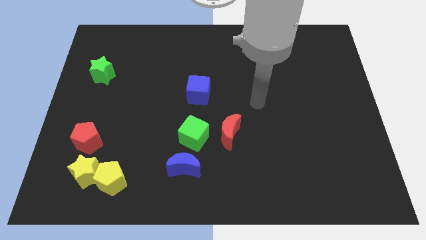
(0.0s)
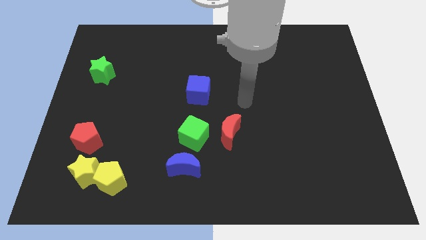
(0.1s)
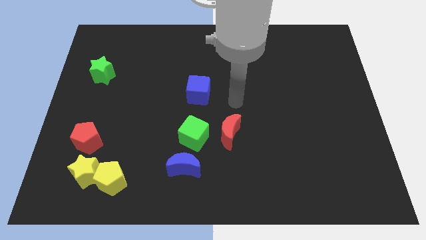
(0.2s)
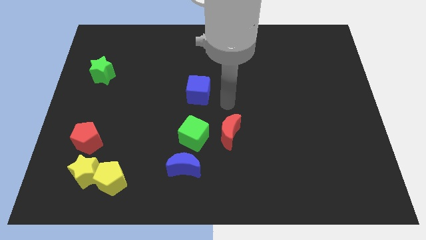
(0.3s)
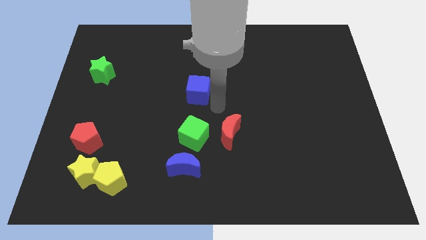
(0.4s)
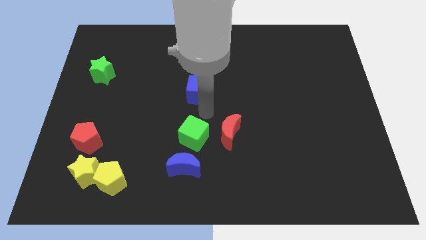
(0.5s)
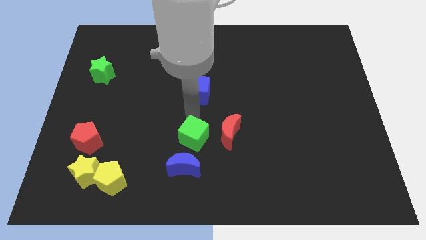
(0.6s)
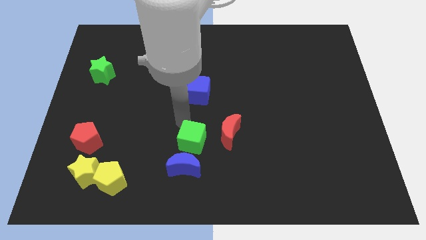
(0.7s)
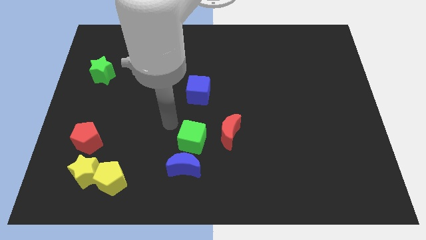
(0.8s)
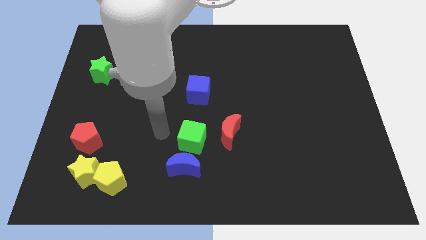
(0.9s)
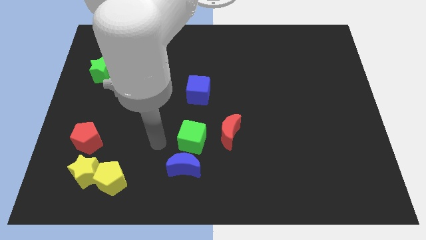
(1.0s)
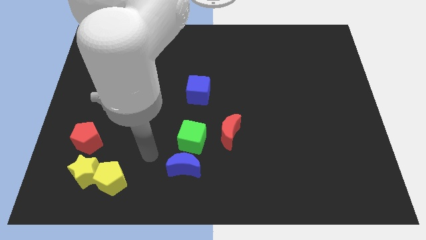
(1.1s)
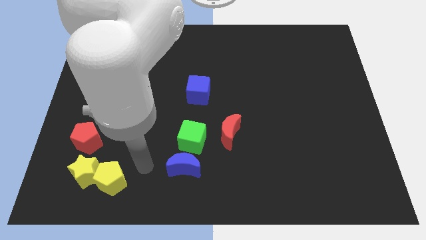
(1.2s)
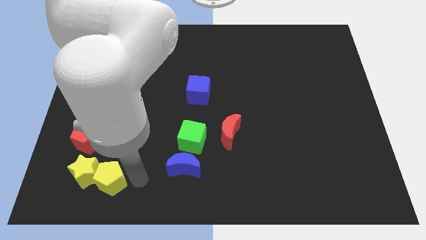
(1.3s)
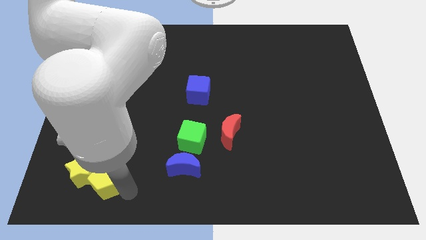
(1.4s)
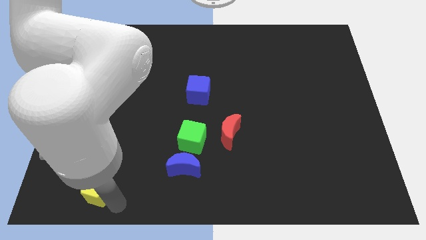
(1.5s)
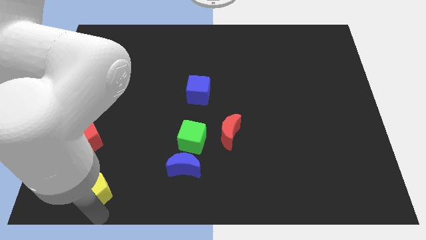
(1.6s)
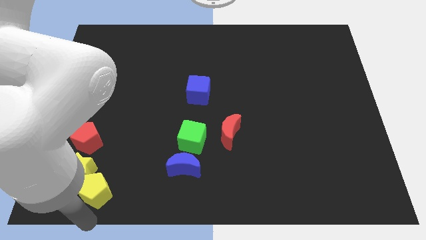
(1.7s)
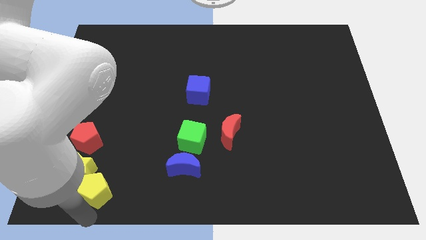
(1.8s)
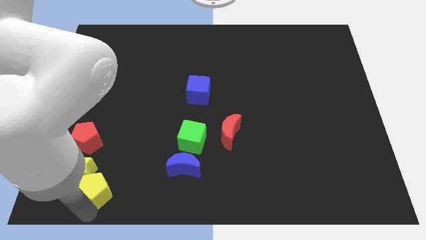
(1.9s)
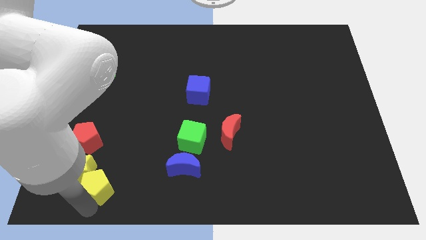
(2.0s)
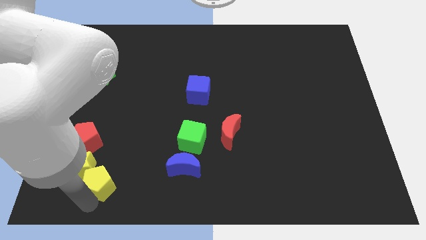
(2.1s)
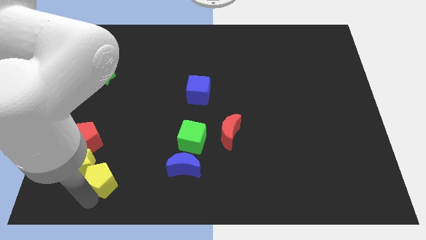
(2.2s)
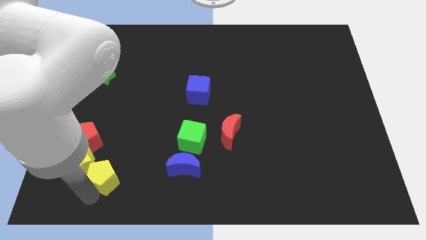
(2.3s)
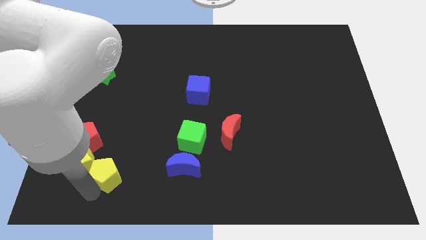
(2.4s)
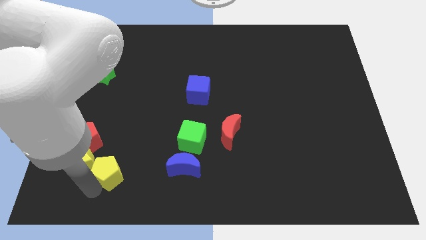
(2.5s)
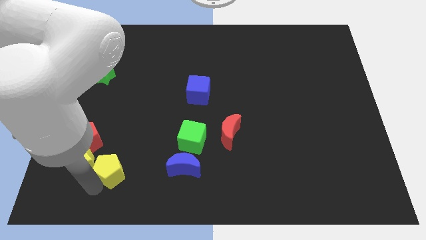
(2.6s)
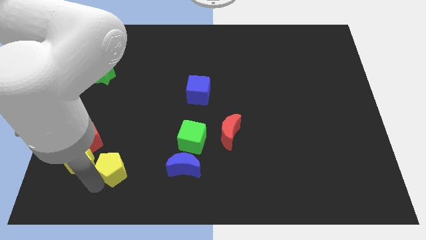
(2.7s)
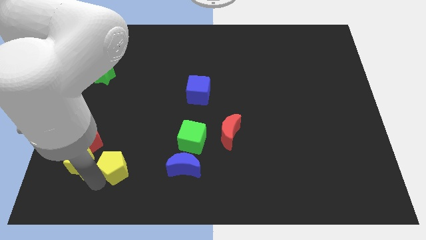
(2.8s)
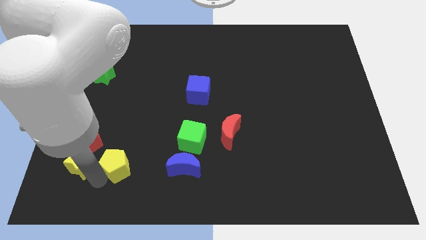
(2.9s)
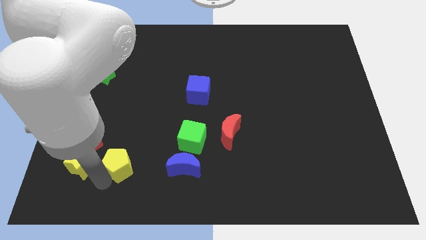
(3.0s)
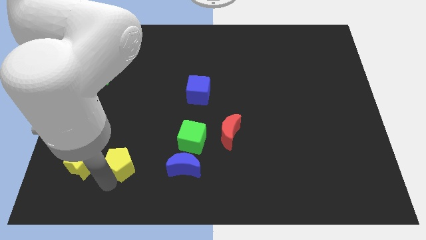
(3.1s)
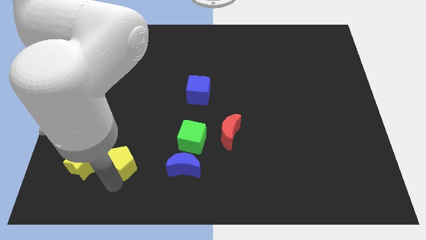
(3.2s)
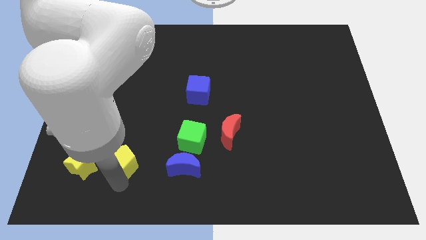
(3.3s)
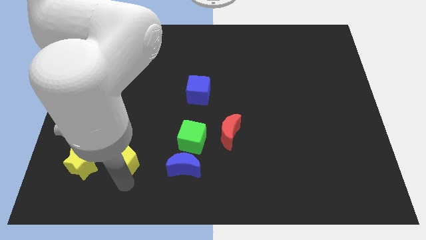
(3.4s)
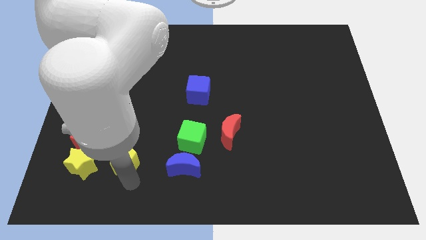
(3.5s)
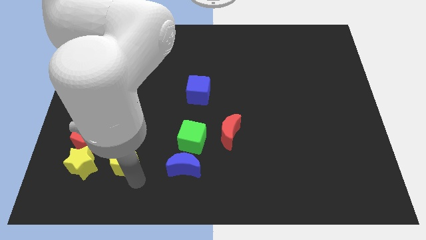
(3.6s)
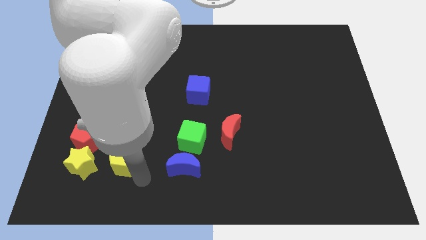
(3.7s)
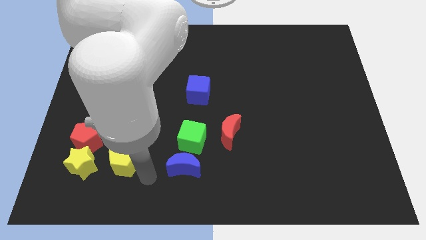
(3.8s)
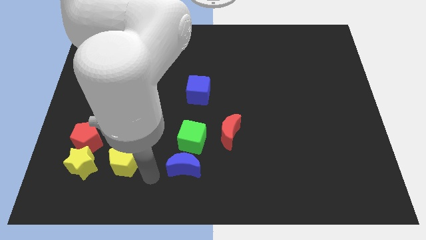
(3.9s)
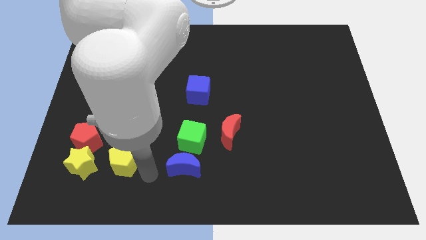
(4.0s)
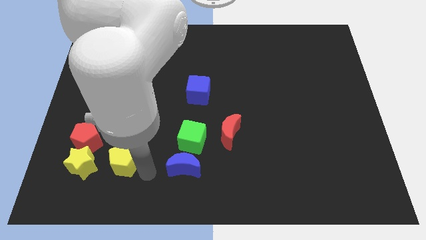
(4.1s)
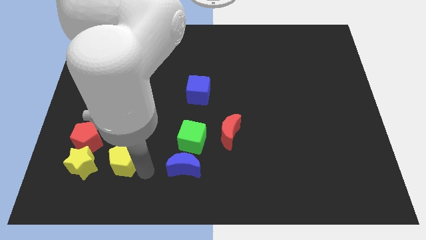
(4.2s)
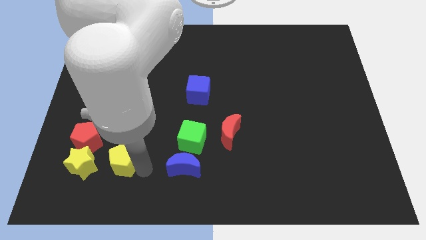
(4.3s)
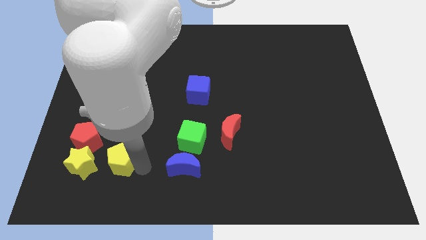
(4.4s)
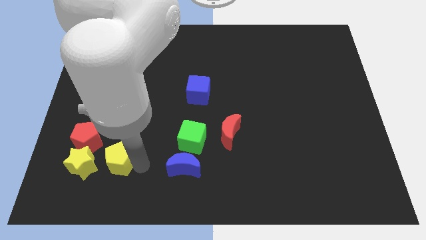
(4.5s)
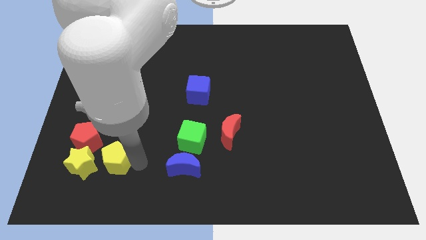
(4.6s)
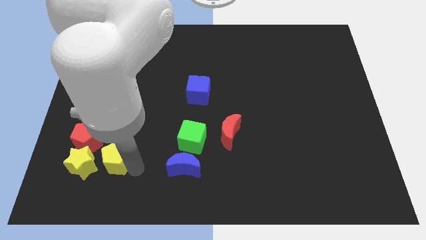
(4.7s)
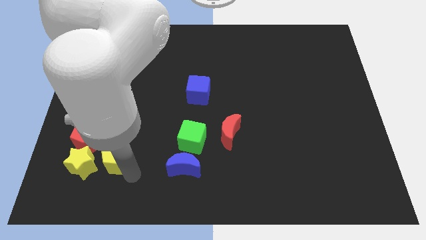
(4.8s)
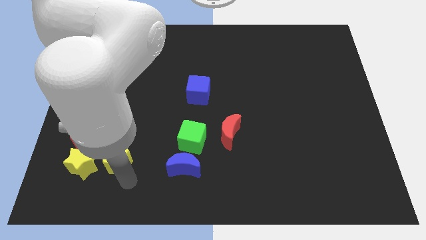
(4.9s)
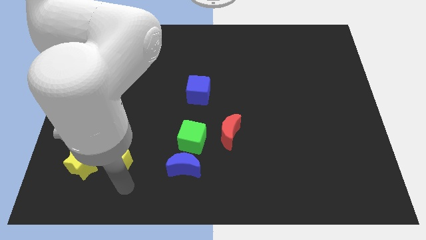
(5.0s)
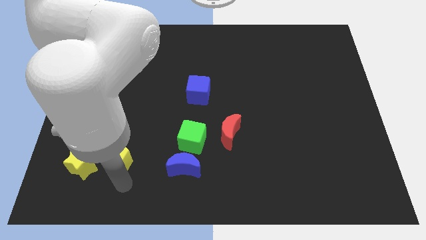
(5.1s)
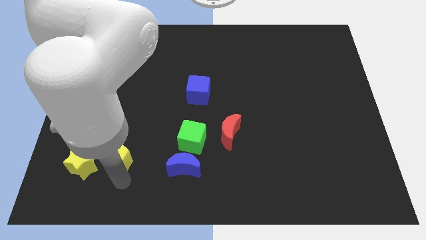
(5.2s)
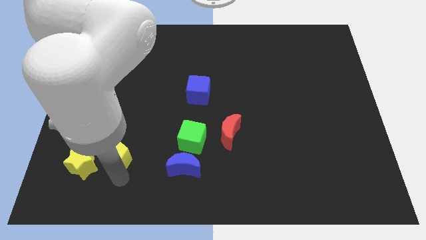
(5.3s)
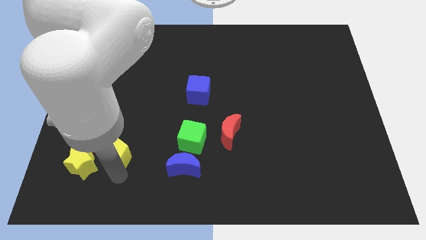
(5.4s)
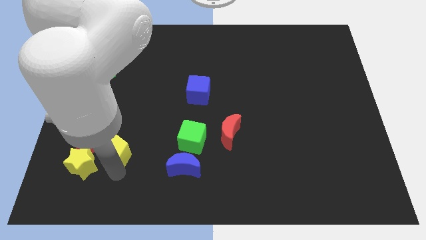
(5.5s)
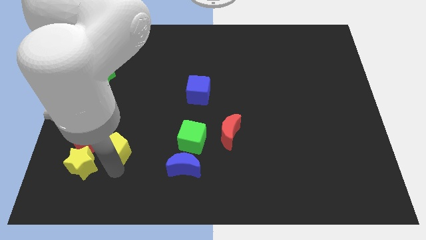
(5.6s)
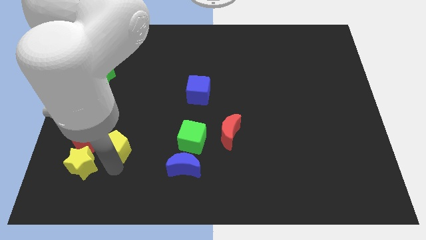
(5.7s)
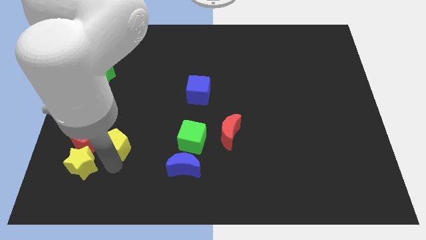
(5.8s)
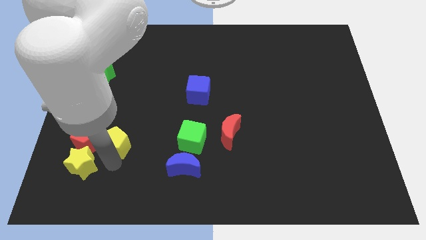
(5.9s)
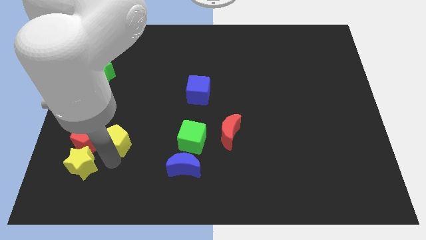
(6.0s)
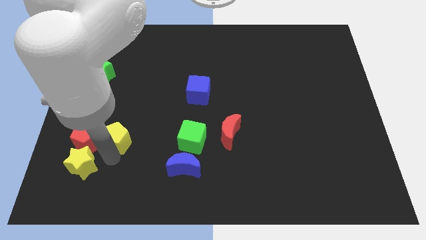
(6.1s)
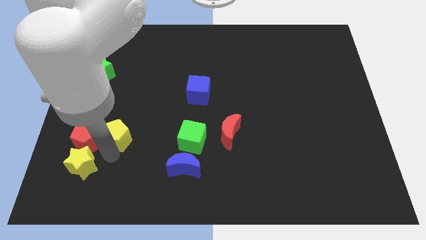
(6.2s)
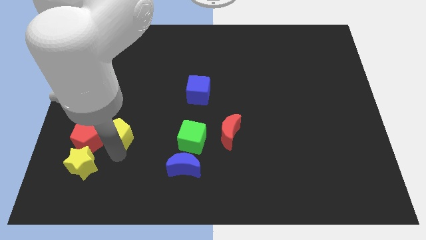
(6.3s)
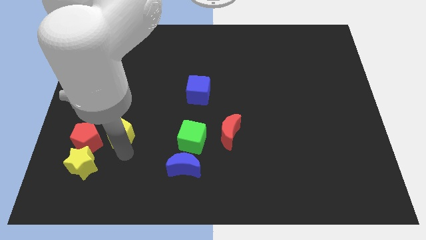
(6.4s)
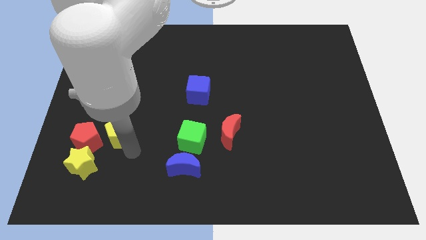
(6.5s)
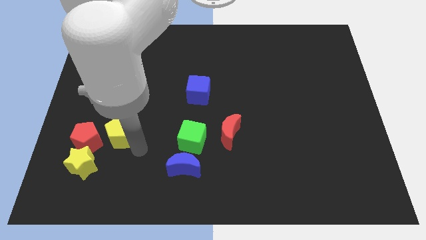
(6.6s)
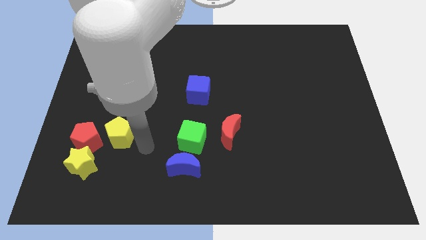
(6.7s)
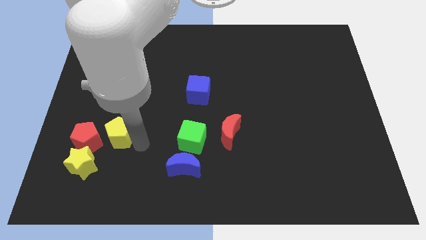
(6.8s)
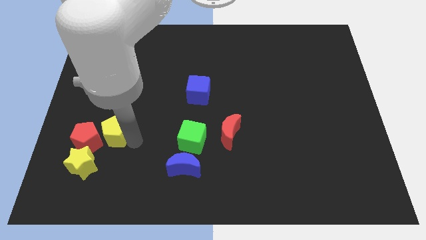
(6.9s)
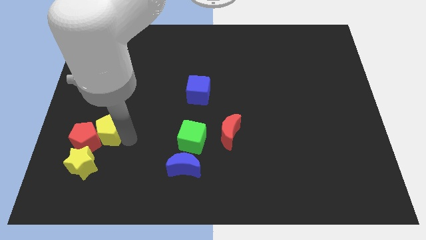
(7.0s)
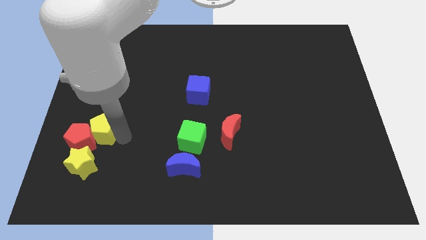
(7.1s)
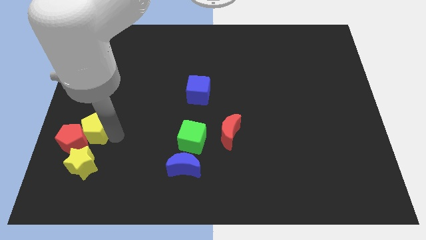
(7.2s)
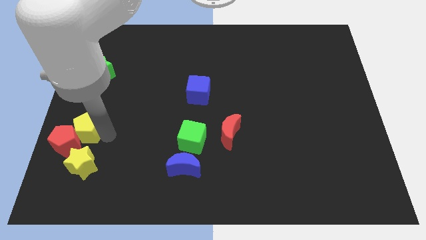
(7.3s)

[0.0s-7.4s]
push the yellow pentagon to the left side of the board
